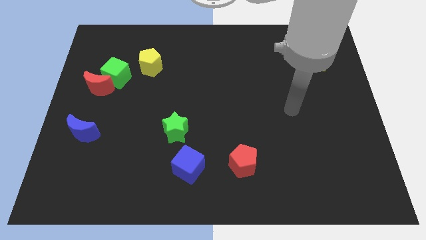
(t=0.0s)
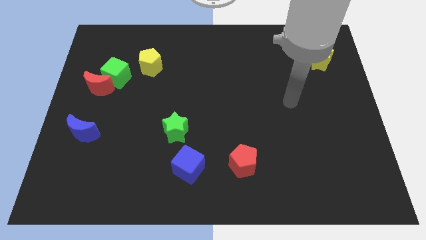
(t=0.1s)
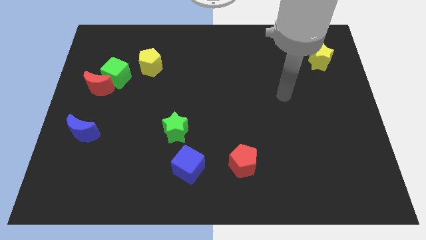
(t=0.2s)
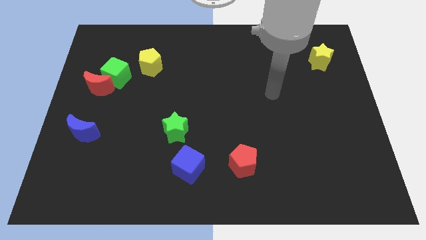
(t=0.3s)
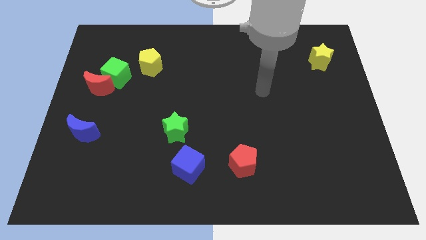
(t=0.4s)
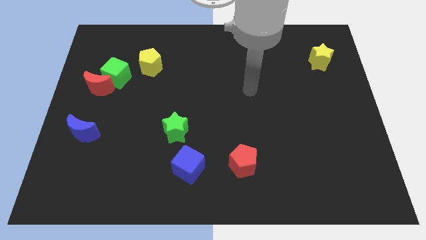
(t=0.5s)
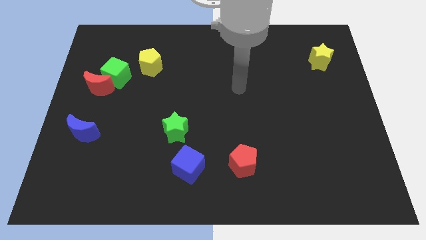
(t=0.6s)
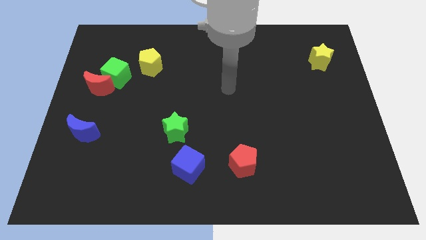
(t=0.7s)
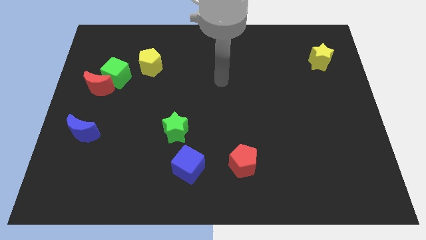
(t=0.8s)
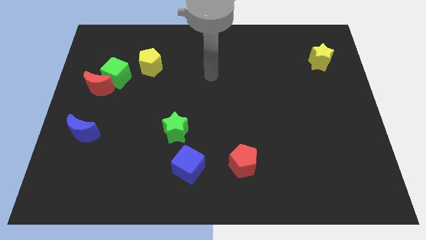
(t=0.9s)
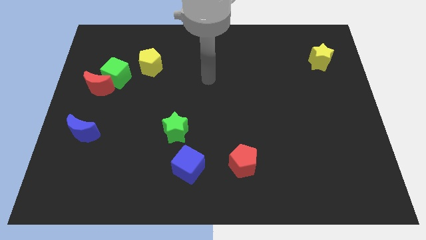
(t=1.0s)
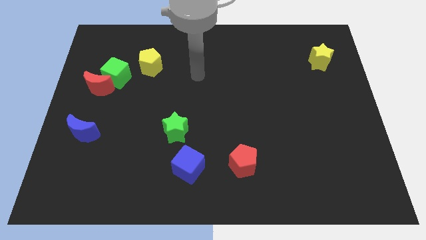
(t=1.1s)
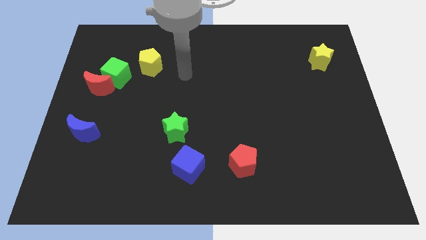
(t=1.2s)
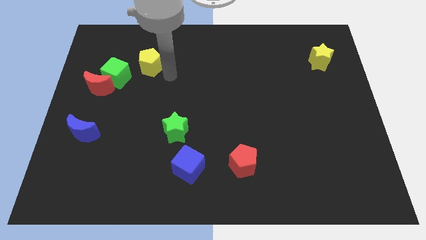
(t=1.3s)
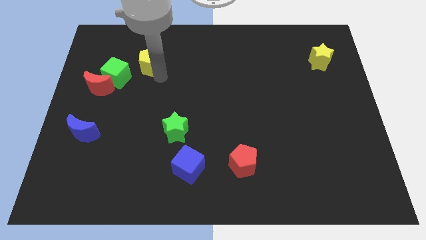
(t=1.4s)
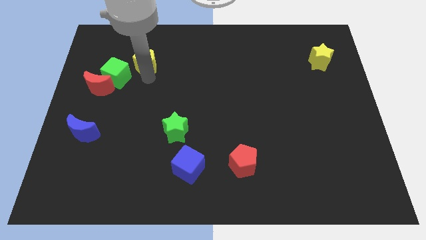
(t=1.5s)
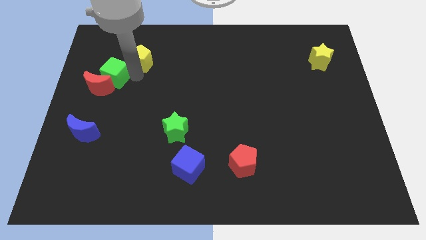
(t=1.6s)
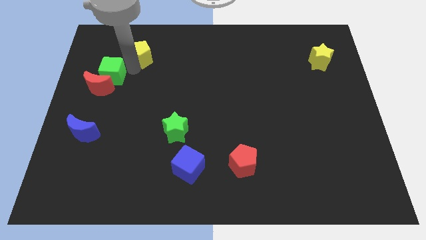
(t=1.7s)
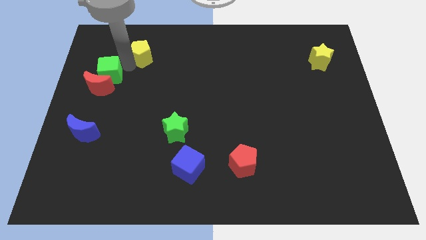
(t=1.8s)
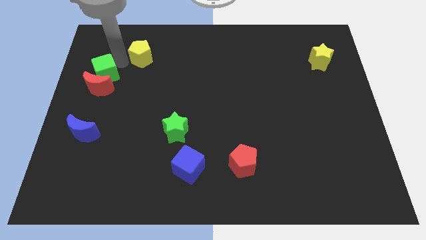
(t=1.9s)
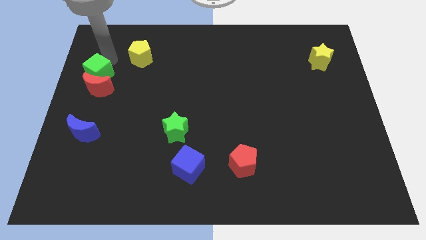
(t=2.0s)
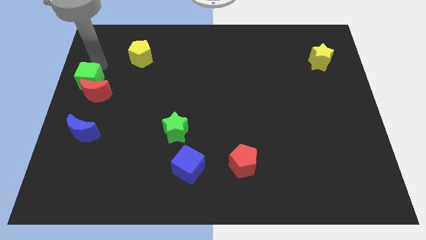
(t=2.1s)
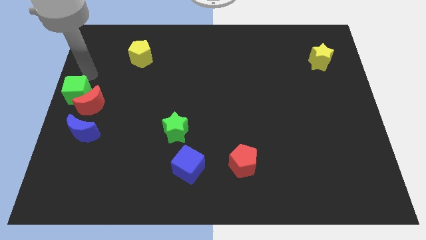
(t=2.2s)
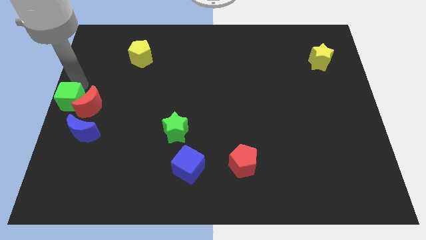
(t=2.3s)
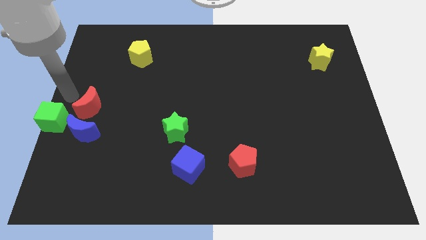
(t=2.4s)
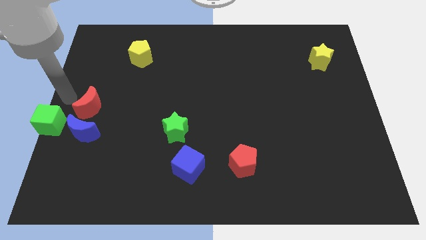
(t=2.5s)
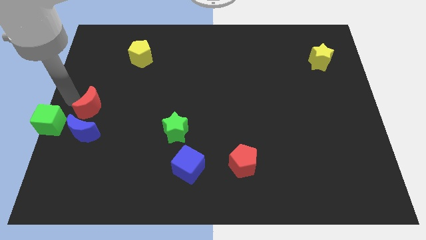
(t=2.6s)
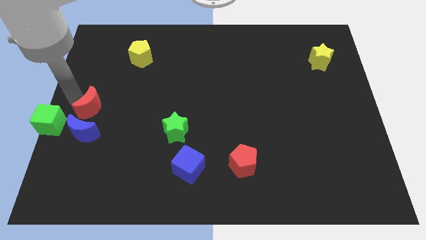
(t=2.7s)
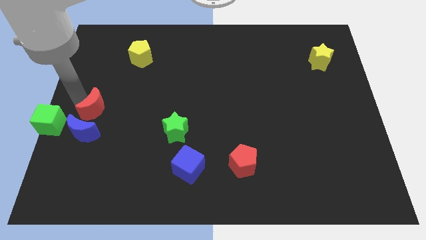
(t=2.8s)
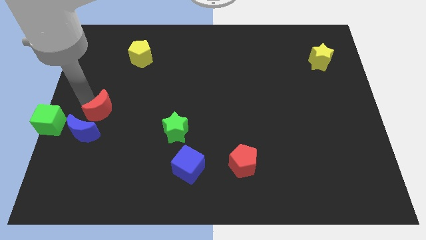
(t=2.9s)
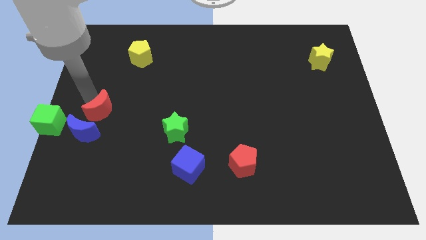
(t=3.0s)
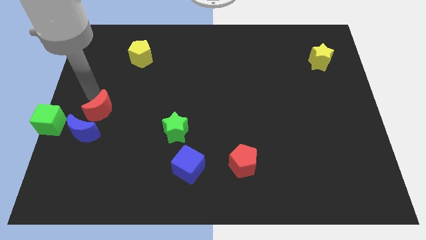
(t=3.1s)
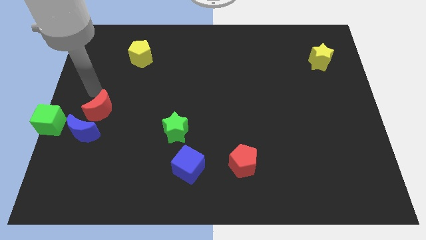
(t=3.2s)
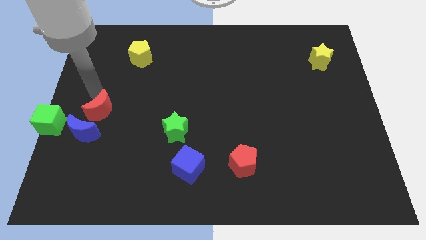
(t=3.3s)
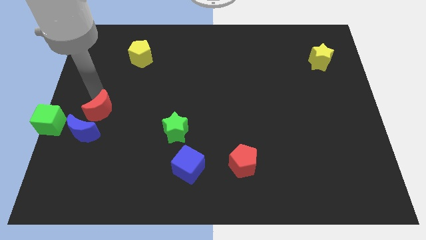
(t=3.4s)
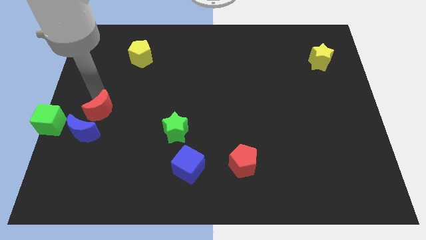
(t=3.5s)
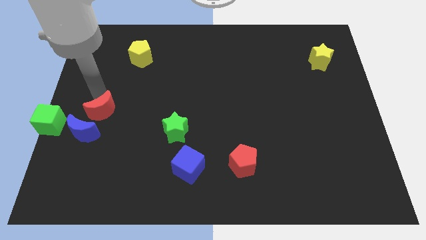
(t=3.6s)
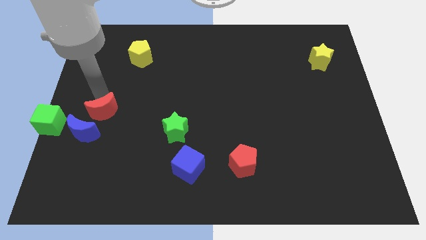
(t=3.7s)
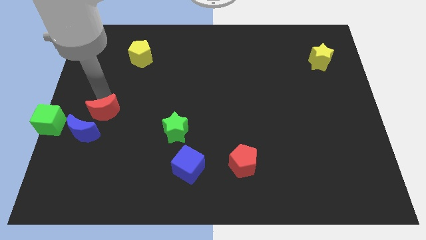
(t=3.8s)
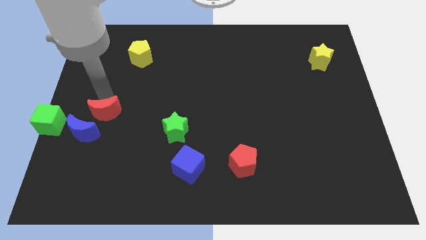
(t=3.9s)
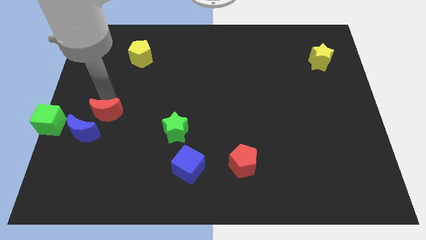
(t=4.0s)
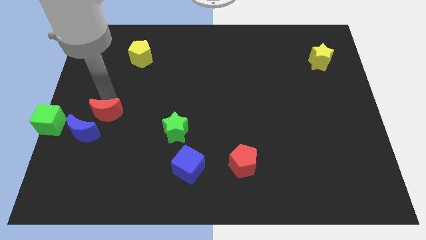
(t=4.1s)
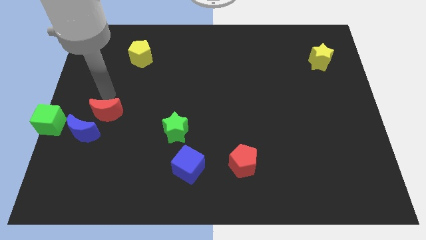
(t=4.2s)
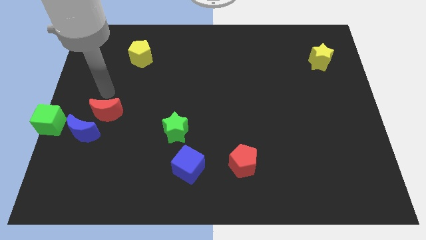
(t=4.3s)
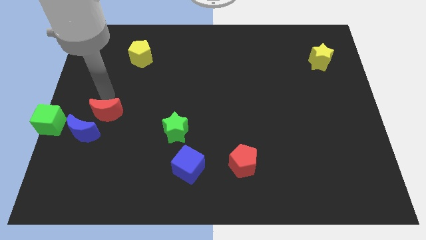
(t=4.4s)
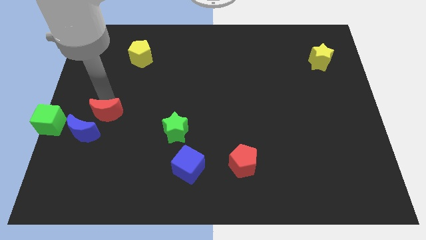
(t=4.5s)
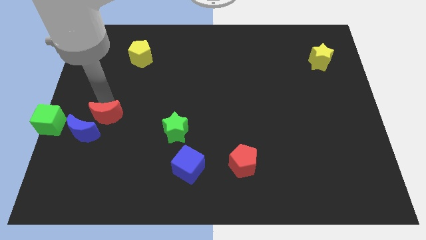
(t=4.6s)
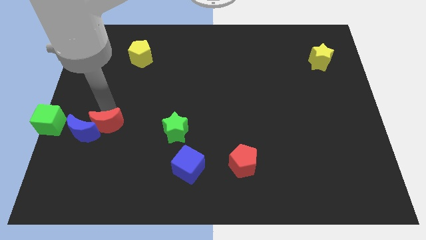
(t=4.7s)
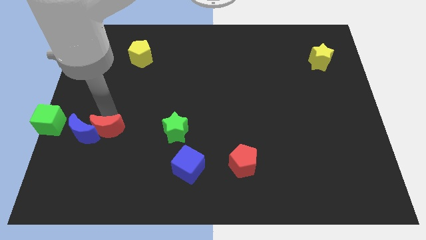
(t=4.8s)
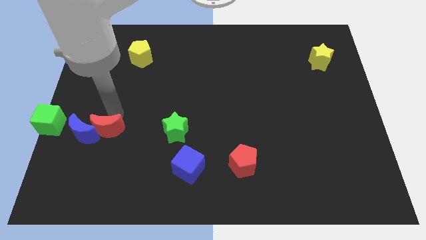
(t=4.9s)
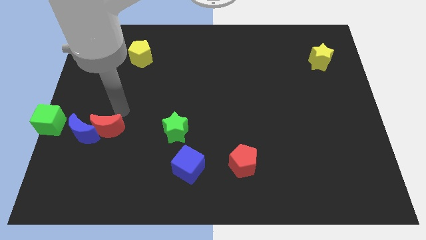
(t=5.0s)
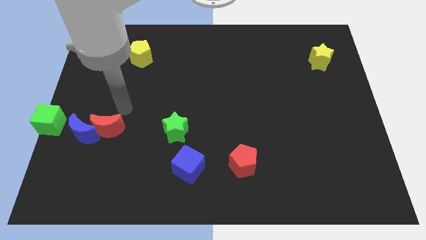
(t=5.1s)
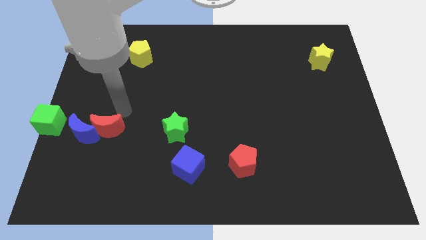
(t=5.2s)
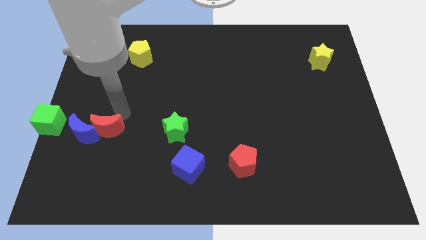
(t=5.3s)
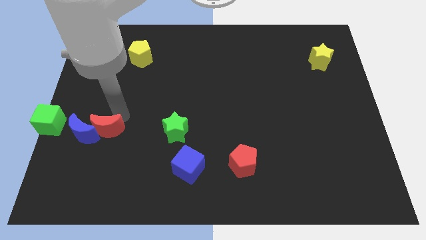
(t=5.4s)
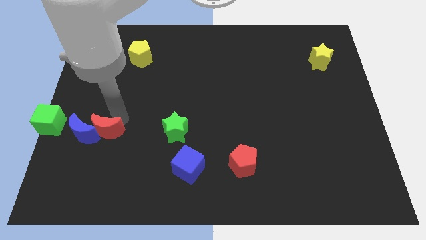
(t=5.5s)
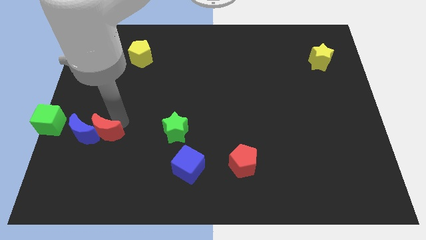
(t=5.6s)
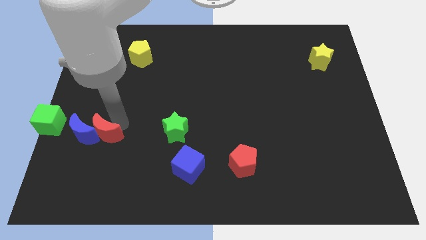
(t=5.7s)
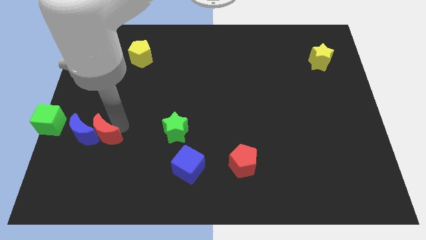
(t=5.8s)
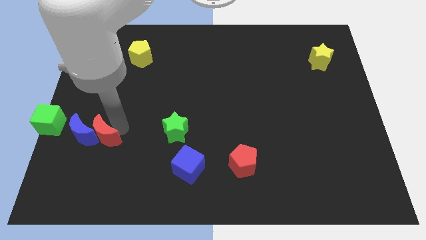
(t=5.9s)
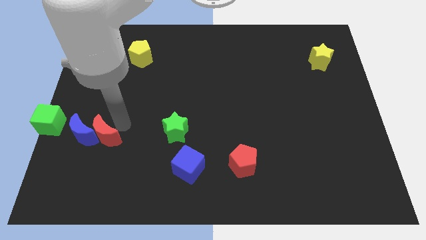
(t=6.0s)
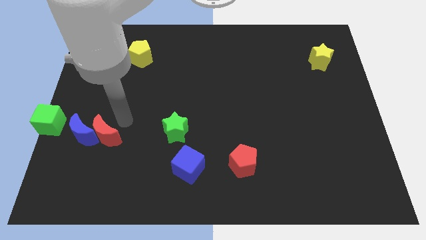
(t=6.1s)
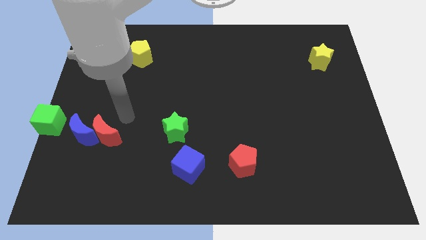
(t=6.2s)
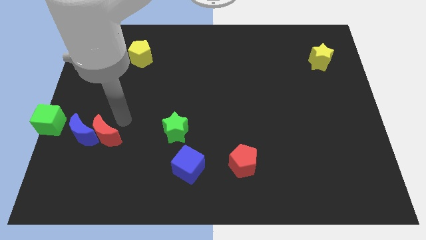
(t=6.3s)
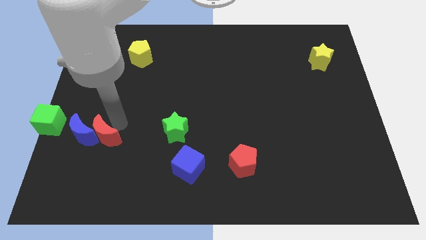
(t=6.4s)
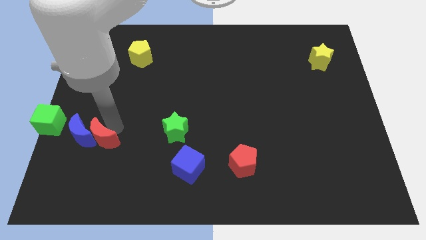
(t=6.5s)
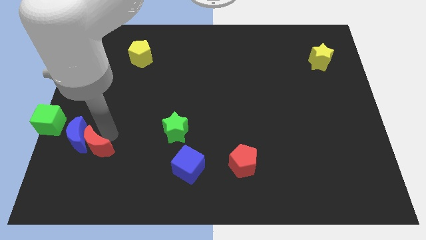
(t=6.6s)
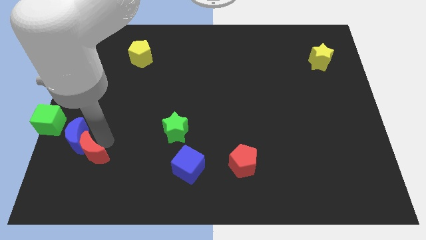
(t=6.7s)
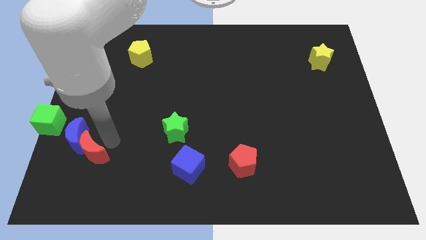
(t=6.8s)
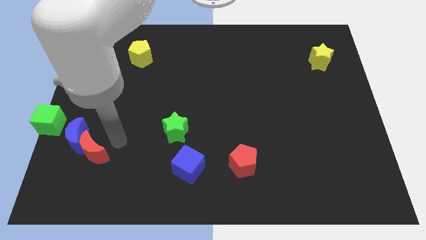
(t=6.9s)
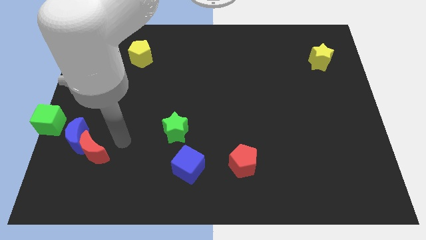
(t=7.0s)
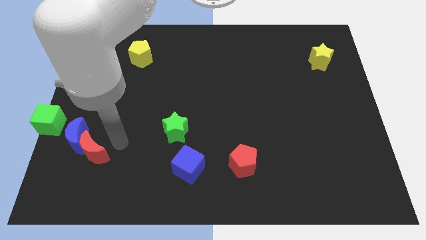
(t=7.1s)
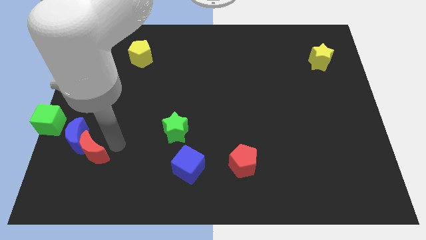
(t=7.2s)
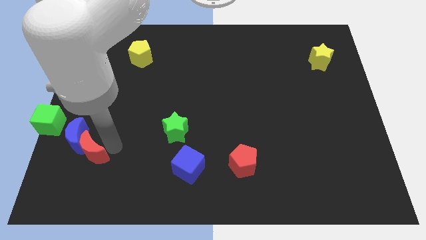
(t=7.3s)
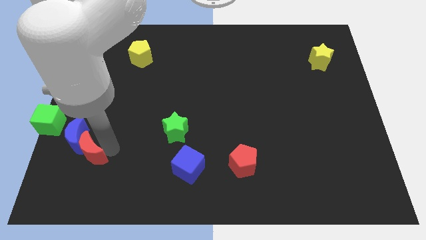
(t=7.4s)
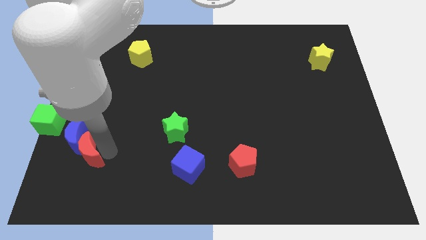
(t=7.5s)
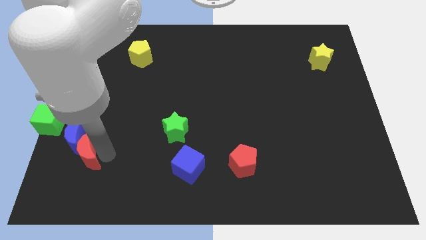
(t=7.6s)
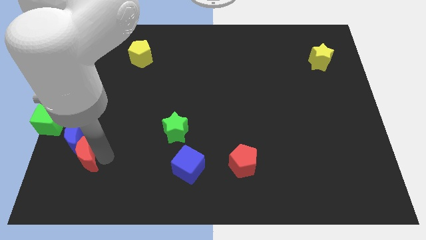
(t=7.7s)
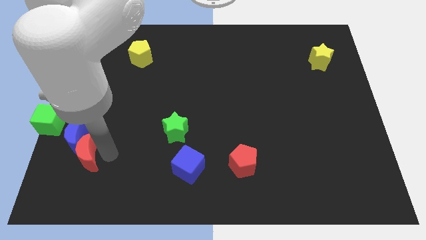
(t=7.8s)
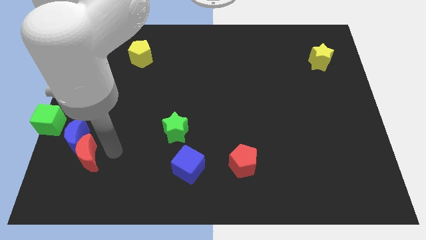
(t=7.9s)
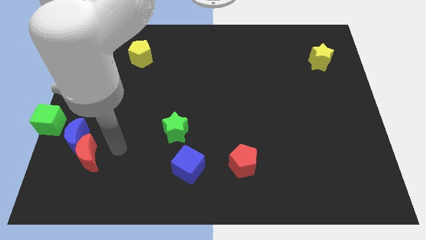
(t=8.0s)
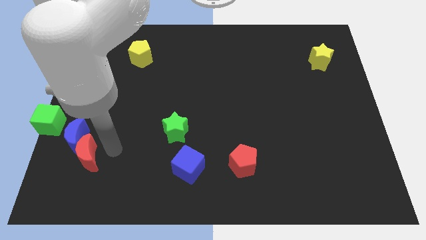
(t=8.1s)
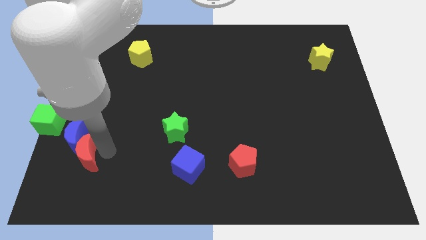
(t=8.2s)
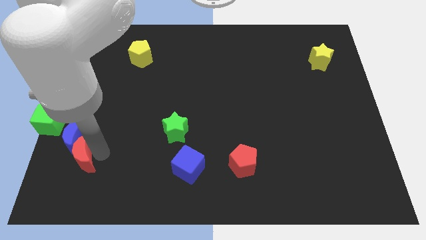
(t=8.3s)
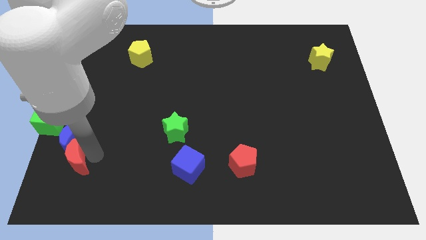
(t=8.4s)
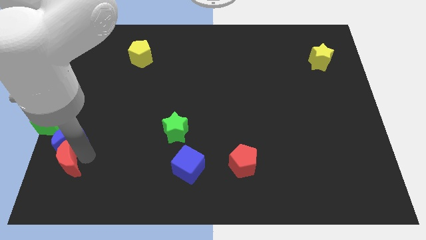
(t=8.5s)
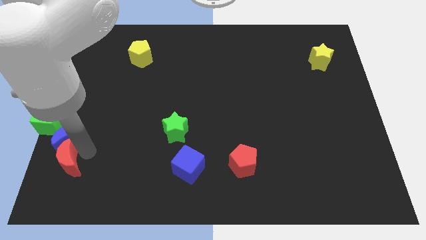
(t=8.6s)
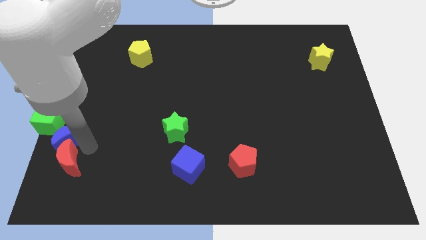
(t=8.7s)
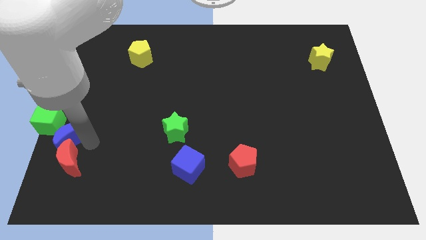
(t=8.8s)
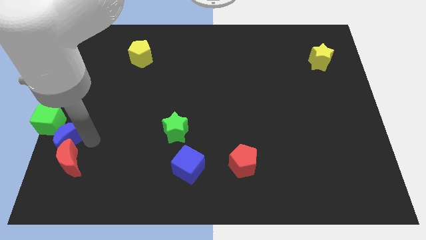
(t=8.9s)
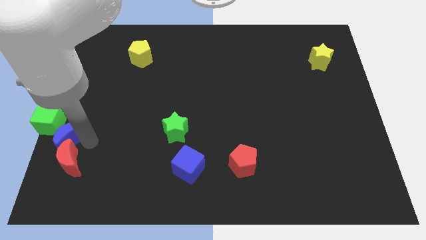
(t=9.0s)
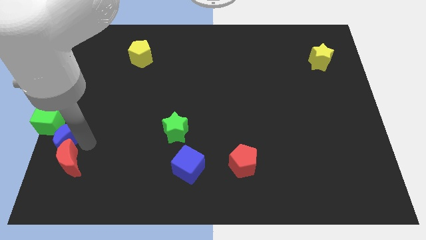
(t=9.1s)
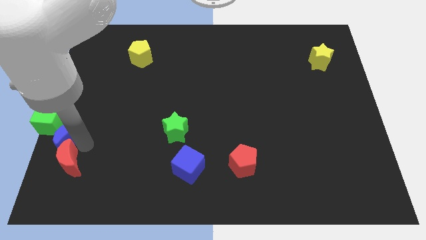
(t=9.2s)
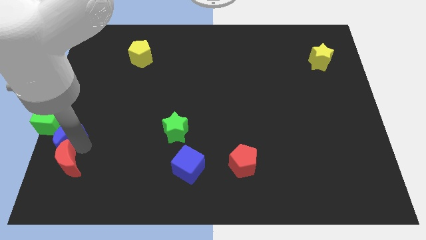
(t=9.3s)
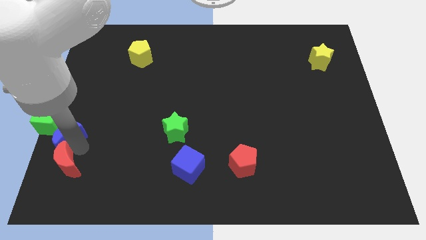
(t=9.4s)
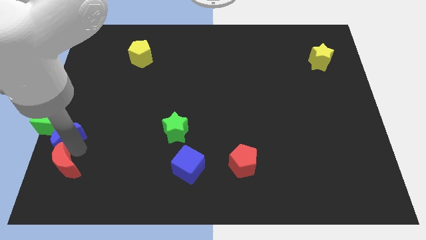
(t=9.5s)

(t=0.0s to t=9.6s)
push the red moon to the bottom left of the board
